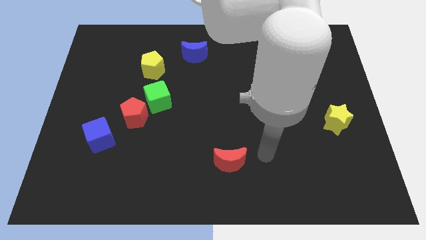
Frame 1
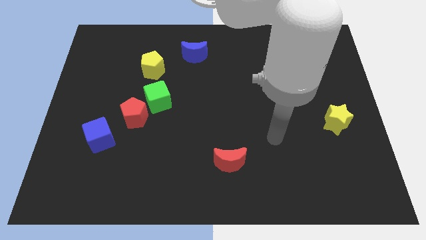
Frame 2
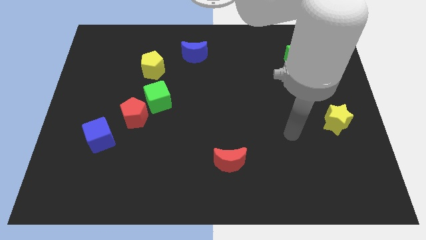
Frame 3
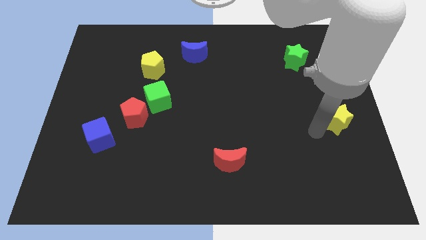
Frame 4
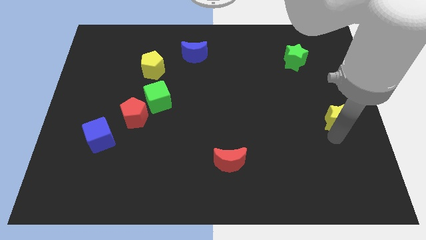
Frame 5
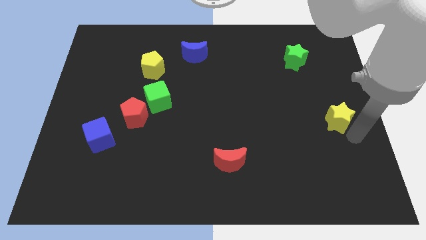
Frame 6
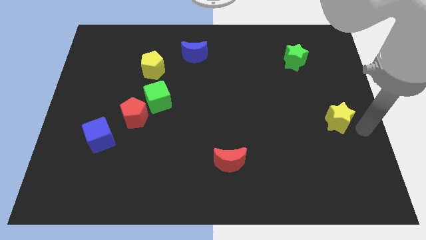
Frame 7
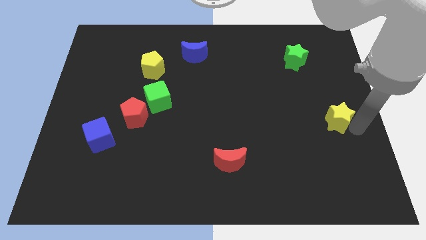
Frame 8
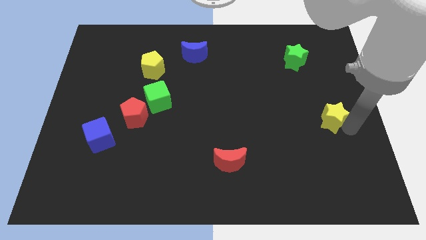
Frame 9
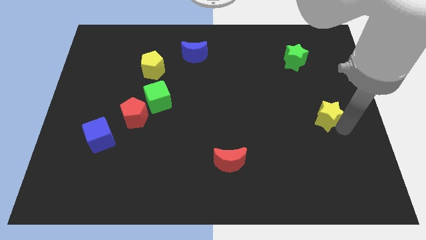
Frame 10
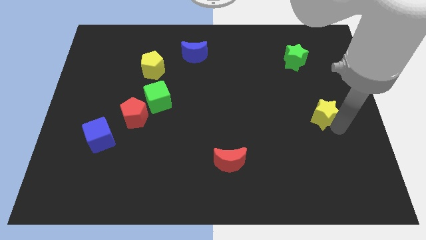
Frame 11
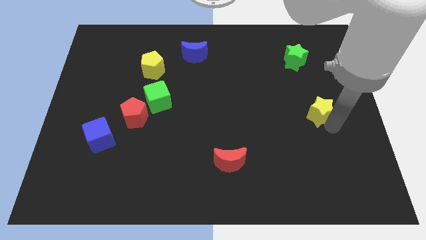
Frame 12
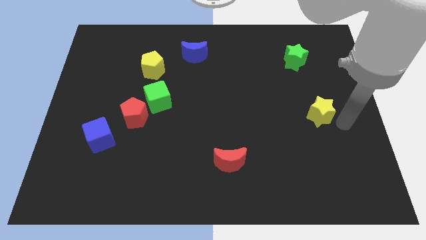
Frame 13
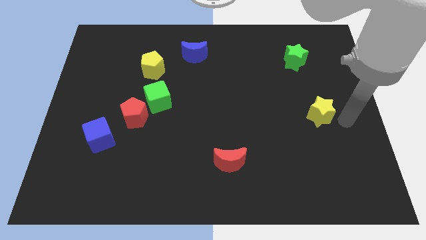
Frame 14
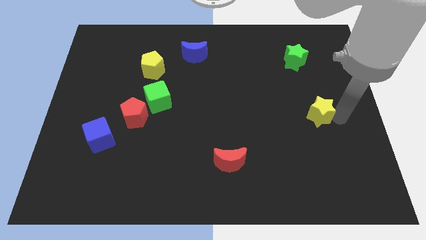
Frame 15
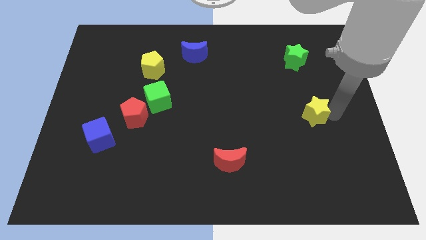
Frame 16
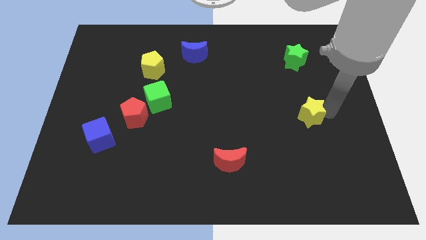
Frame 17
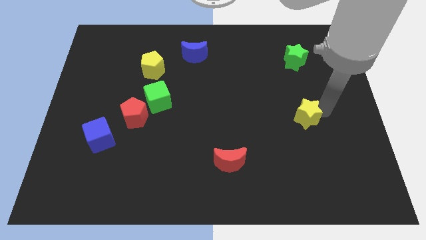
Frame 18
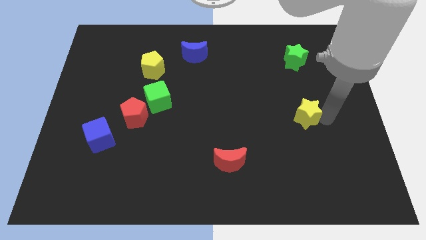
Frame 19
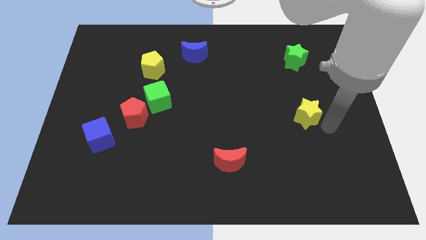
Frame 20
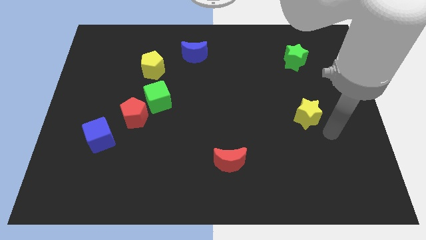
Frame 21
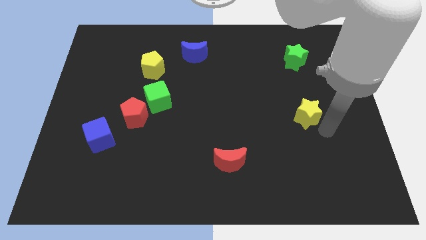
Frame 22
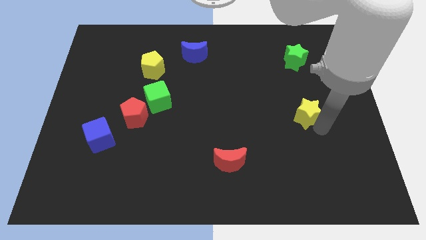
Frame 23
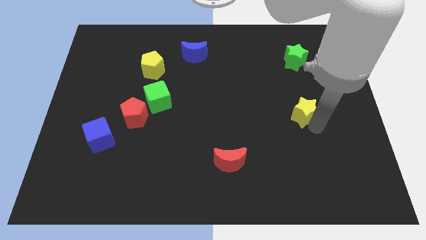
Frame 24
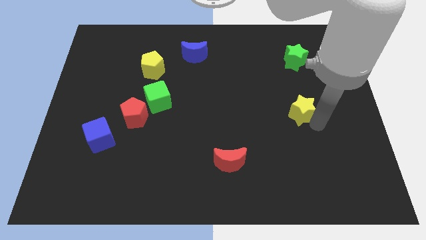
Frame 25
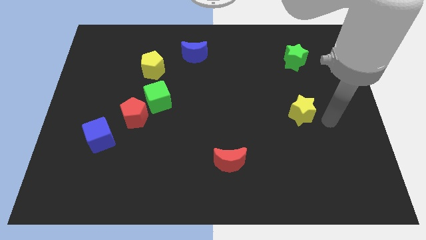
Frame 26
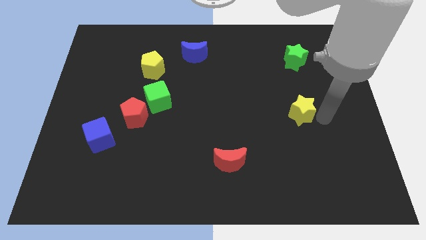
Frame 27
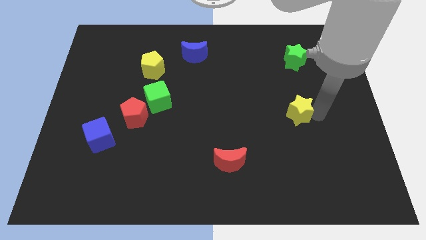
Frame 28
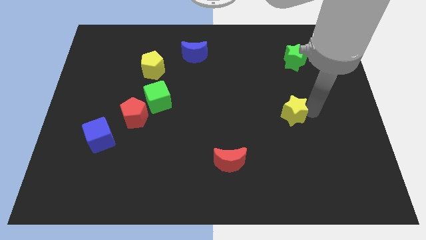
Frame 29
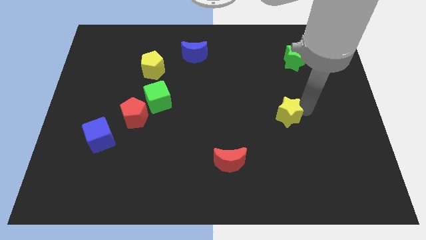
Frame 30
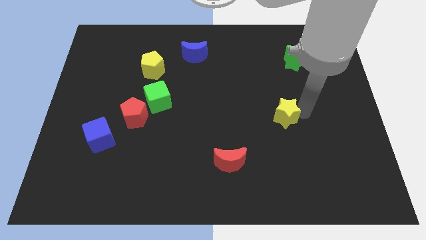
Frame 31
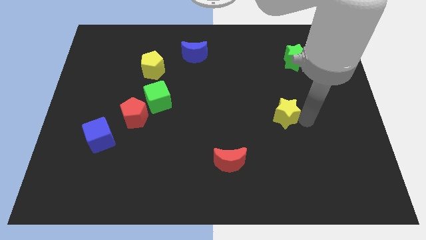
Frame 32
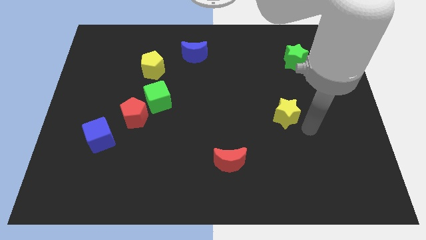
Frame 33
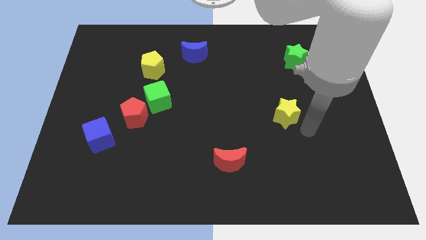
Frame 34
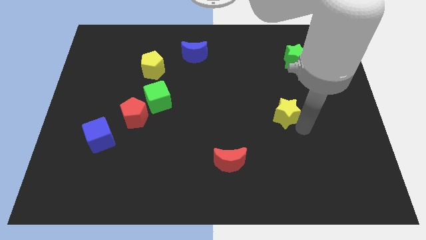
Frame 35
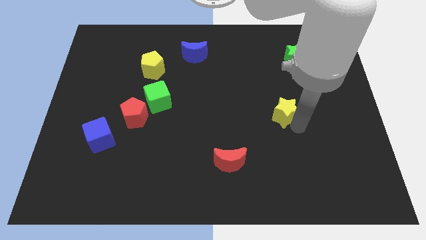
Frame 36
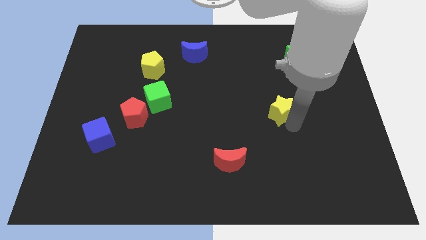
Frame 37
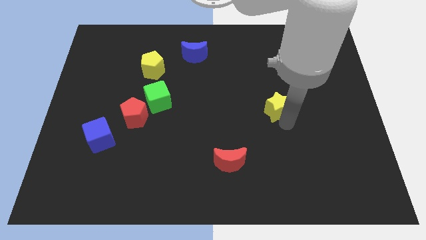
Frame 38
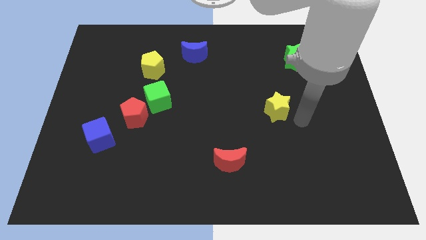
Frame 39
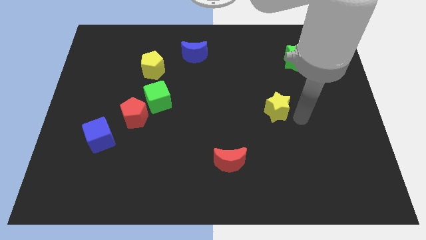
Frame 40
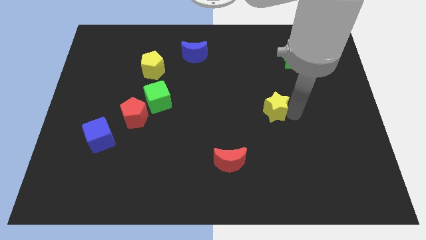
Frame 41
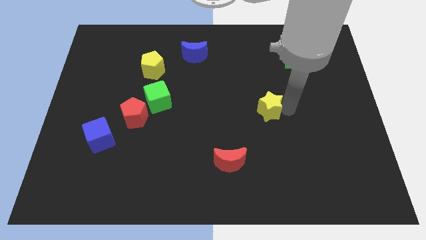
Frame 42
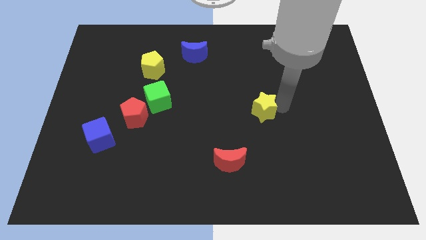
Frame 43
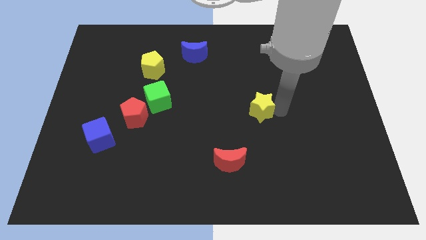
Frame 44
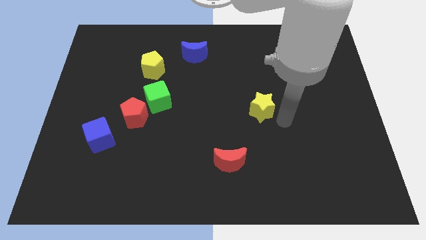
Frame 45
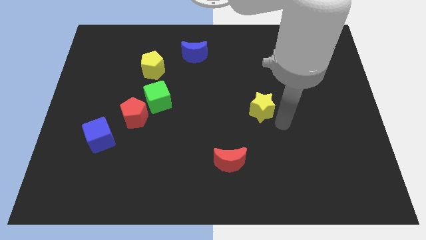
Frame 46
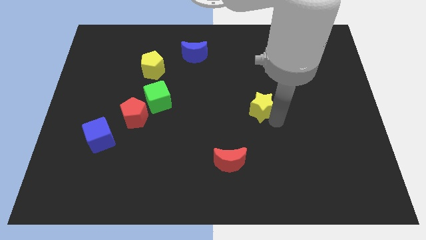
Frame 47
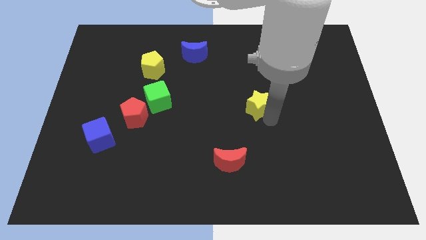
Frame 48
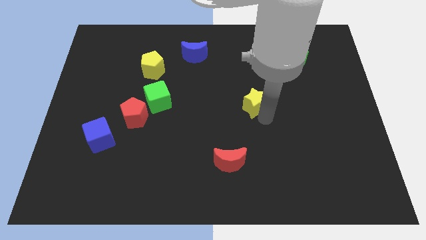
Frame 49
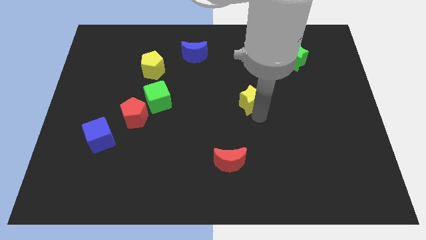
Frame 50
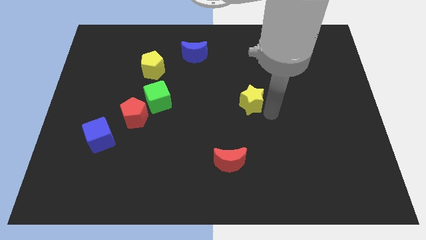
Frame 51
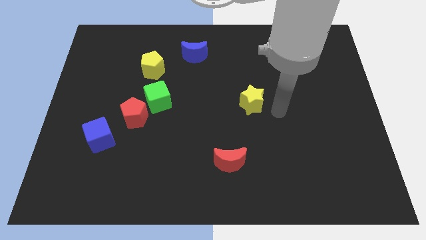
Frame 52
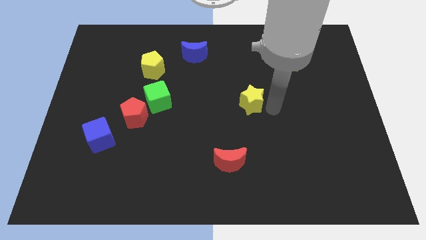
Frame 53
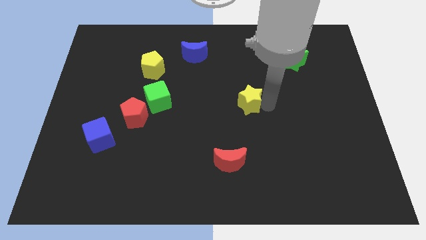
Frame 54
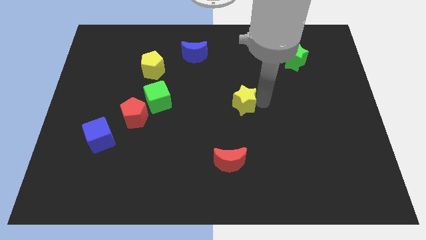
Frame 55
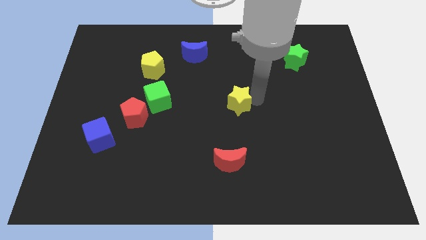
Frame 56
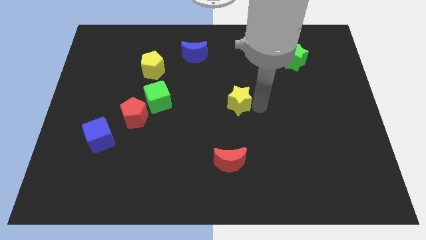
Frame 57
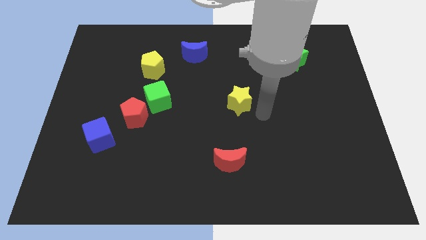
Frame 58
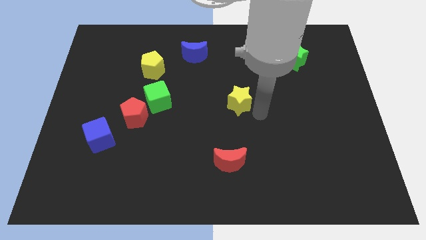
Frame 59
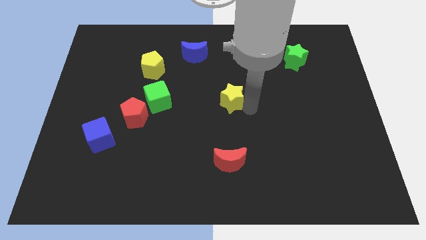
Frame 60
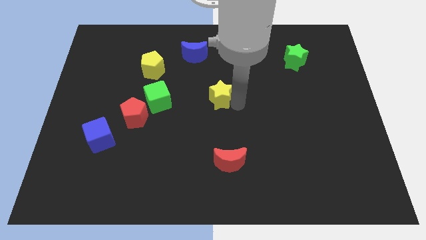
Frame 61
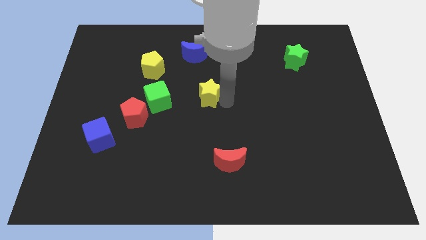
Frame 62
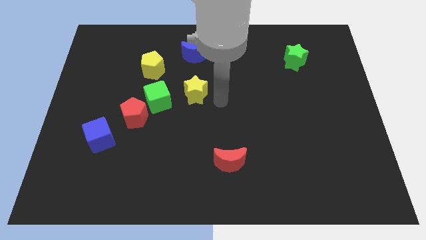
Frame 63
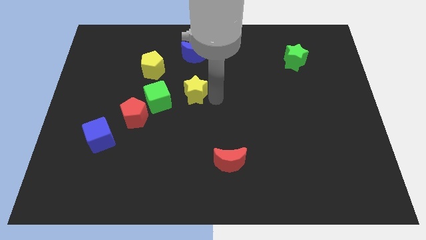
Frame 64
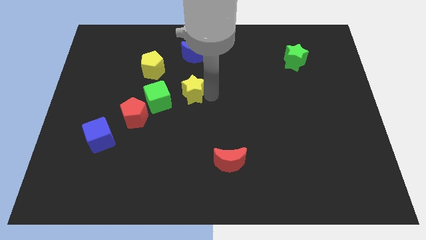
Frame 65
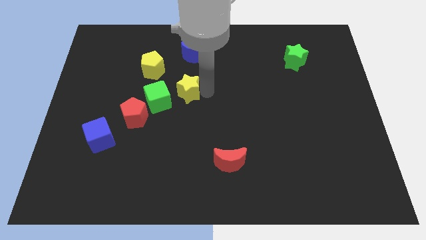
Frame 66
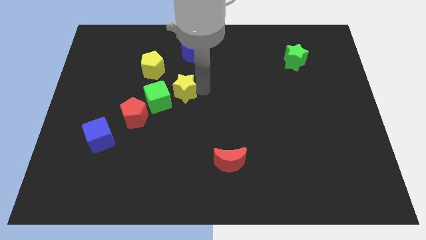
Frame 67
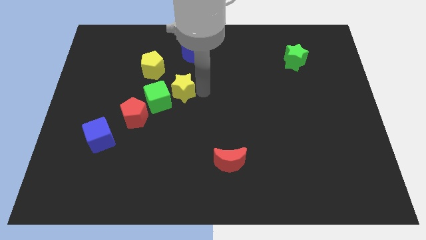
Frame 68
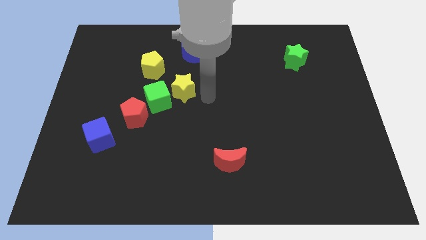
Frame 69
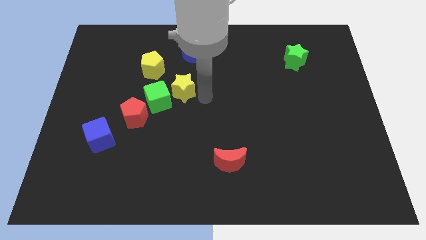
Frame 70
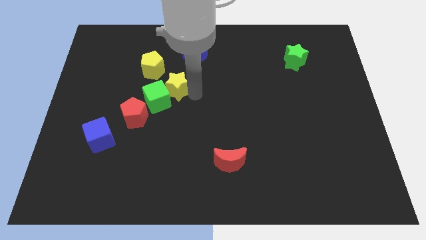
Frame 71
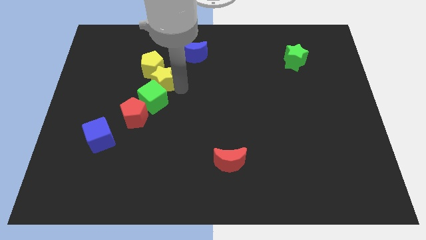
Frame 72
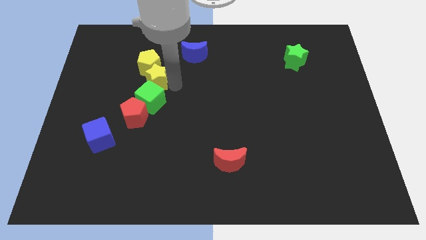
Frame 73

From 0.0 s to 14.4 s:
put the yellow star above the red pentagon
